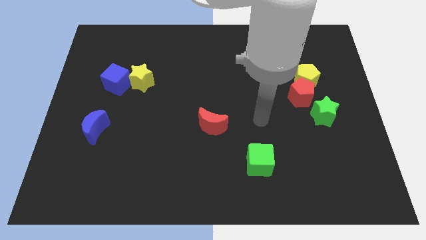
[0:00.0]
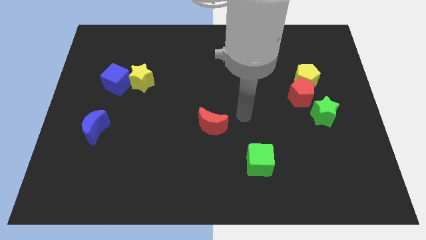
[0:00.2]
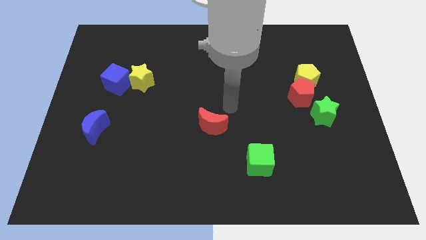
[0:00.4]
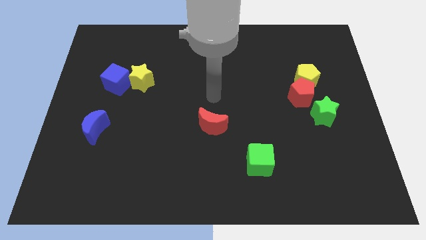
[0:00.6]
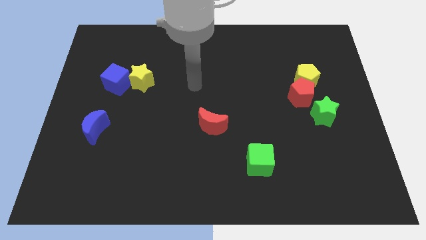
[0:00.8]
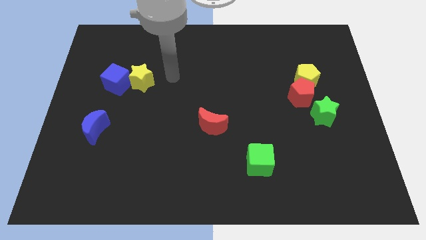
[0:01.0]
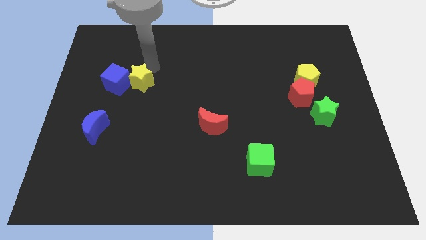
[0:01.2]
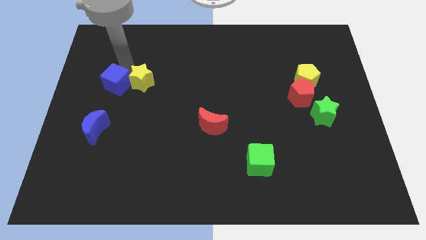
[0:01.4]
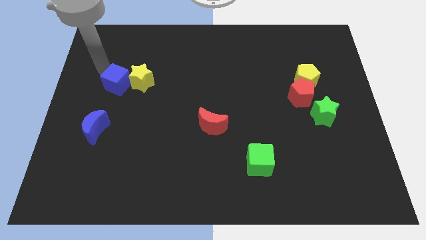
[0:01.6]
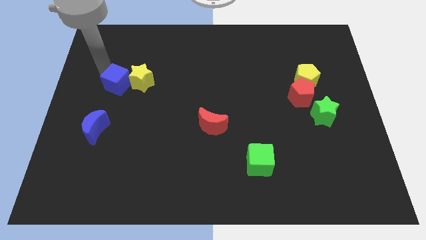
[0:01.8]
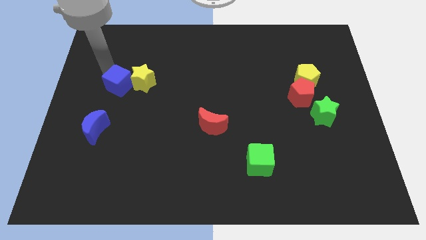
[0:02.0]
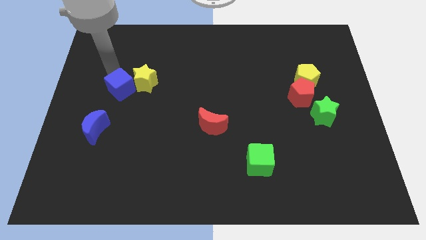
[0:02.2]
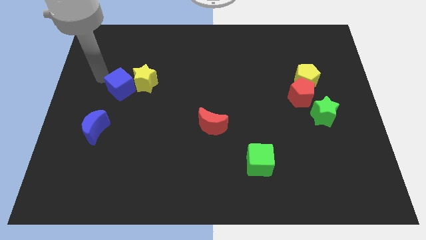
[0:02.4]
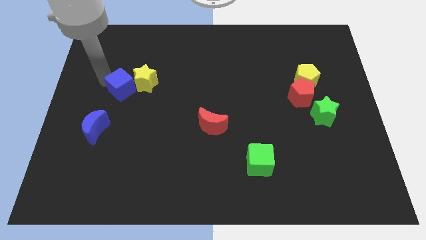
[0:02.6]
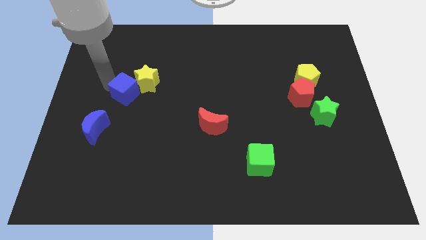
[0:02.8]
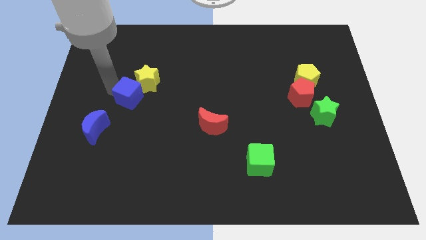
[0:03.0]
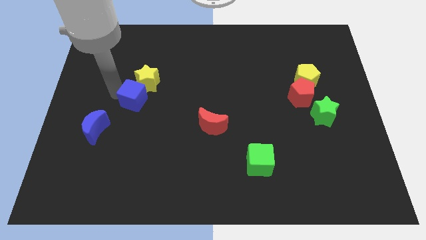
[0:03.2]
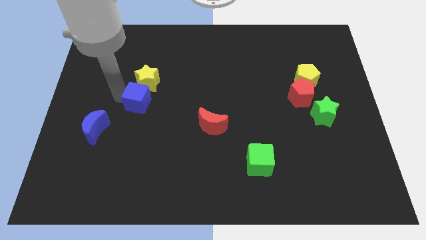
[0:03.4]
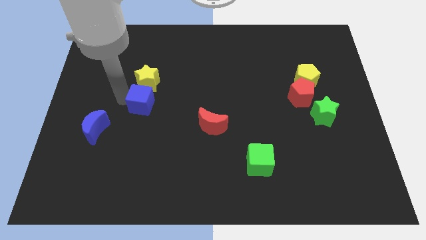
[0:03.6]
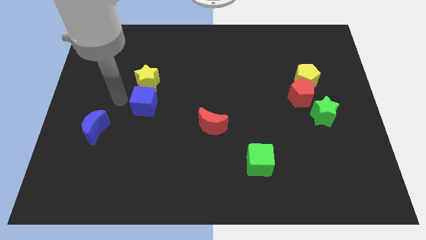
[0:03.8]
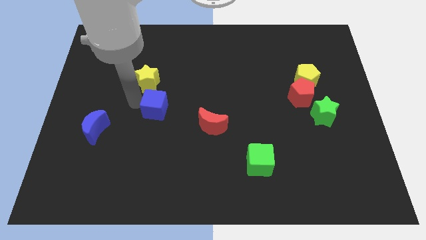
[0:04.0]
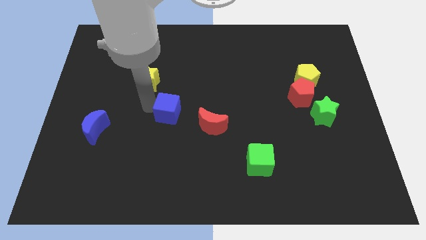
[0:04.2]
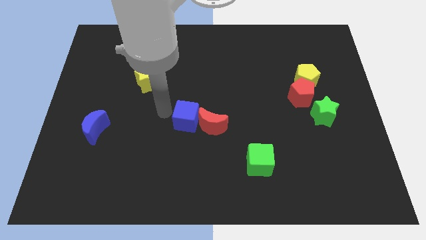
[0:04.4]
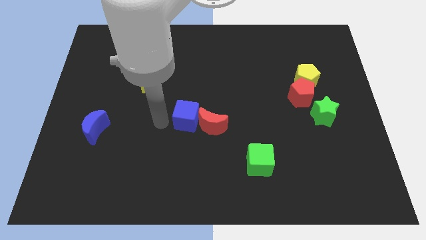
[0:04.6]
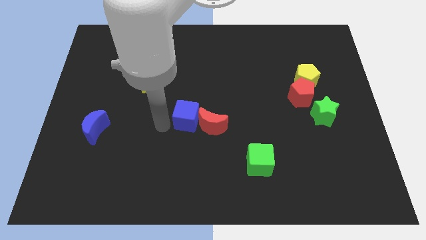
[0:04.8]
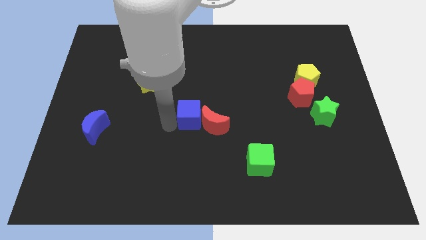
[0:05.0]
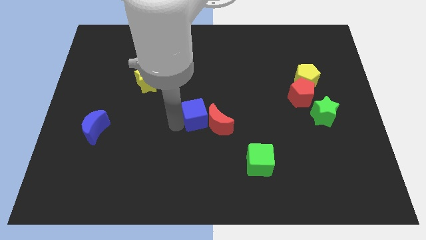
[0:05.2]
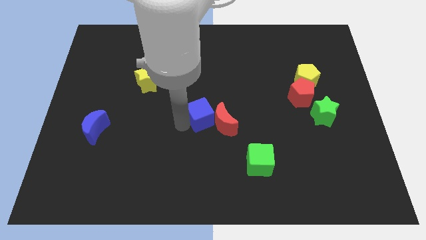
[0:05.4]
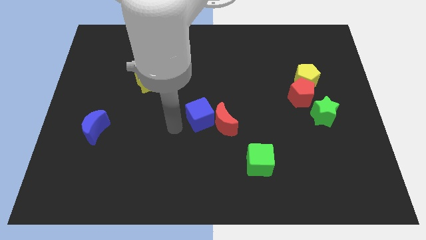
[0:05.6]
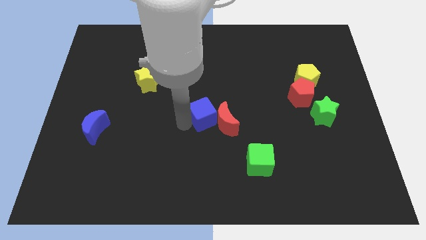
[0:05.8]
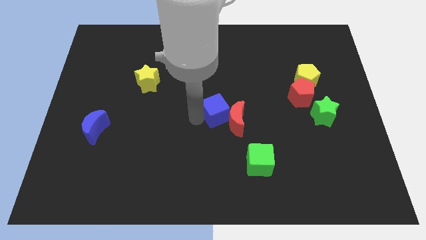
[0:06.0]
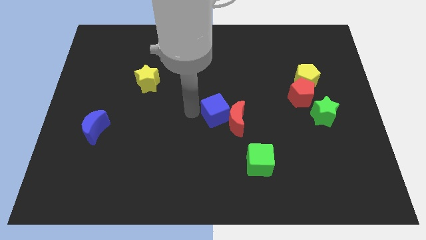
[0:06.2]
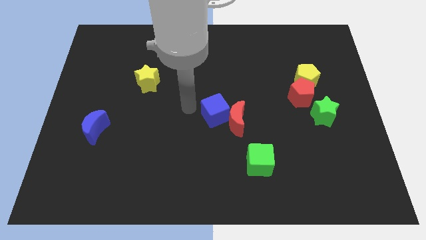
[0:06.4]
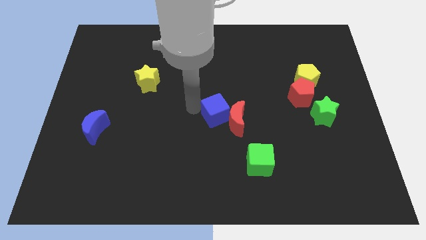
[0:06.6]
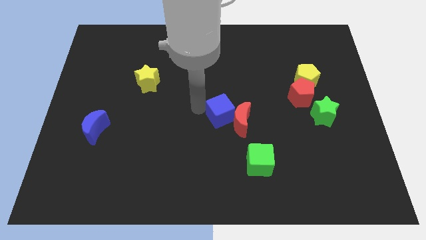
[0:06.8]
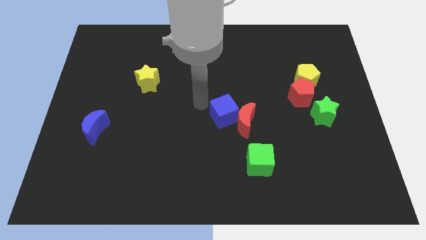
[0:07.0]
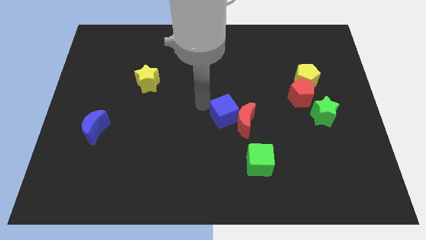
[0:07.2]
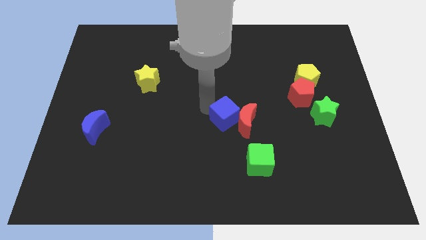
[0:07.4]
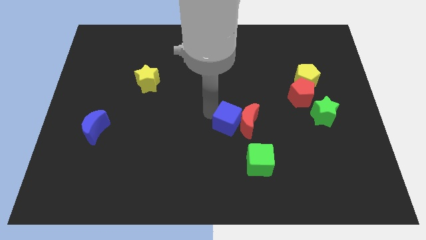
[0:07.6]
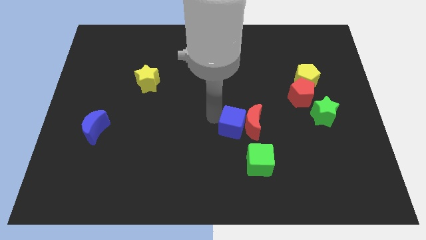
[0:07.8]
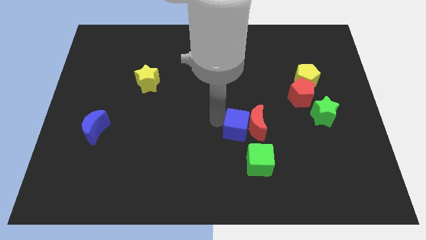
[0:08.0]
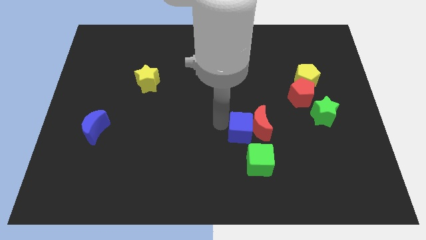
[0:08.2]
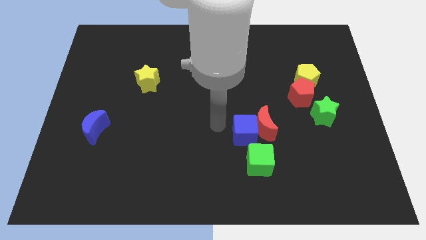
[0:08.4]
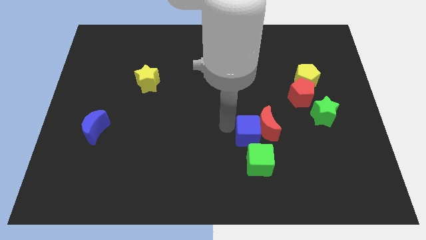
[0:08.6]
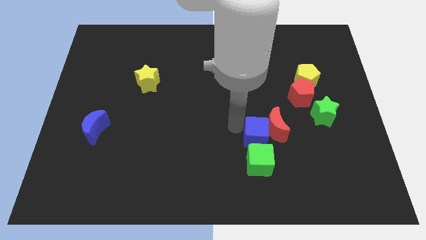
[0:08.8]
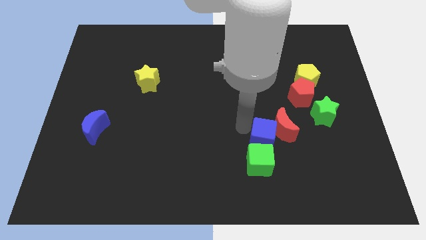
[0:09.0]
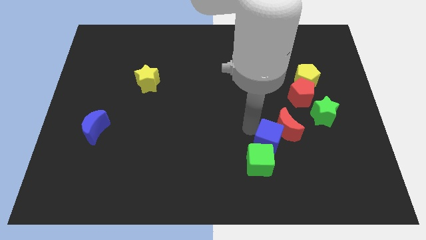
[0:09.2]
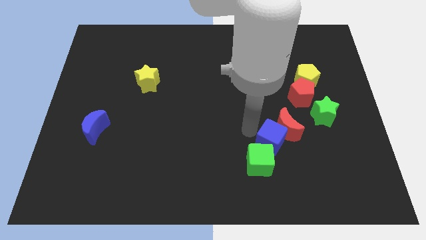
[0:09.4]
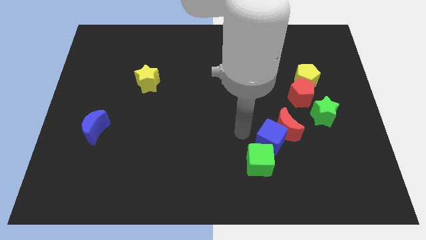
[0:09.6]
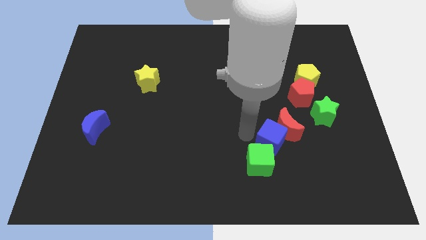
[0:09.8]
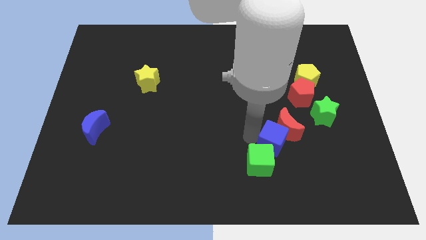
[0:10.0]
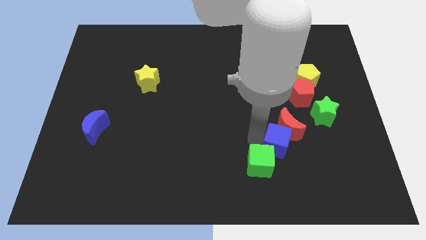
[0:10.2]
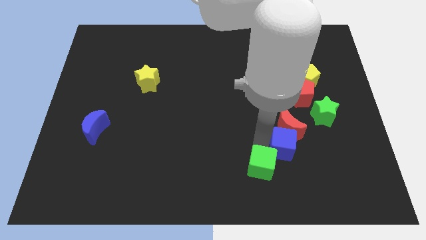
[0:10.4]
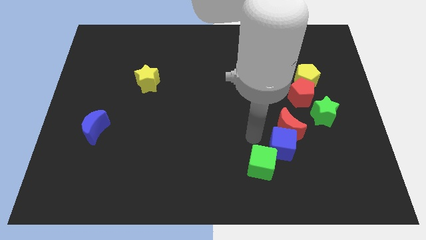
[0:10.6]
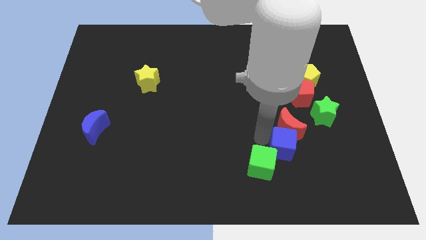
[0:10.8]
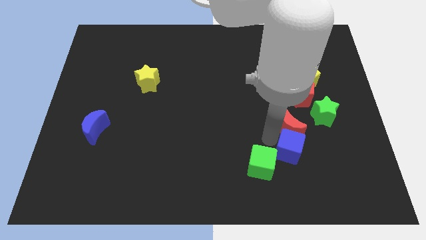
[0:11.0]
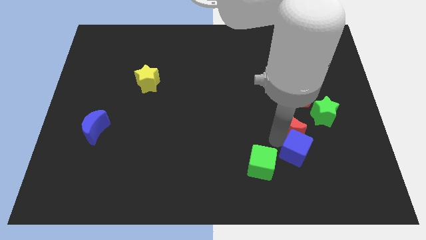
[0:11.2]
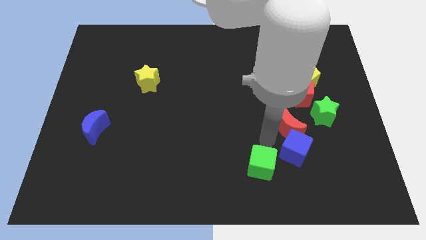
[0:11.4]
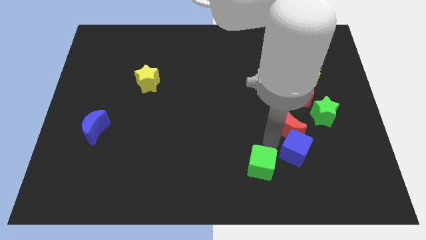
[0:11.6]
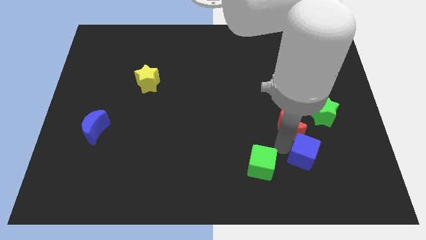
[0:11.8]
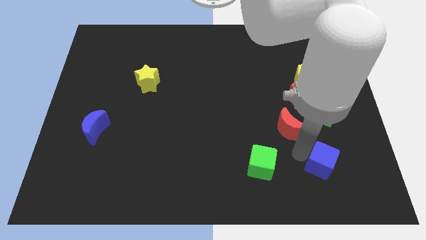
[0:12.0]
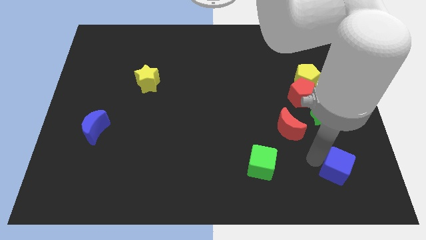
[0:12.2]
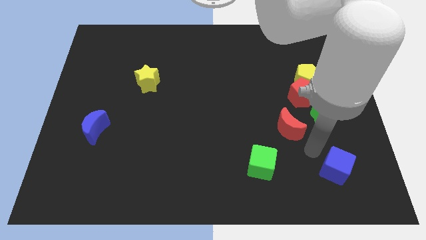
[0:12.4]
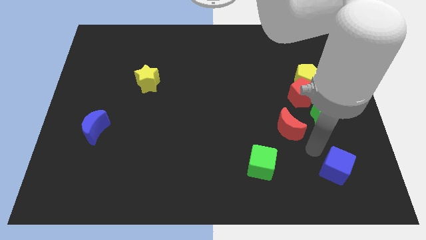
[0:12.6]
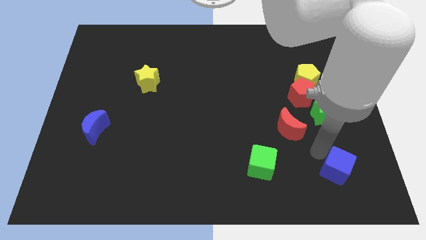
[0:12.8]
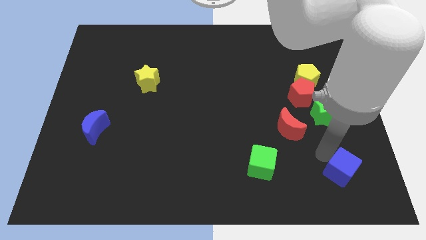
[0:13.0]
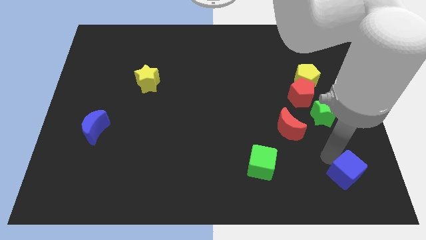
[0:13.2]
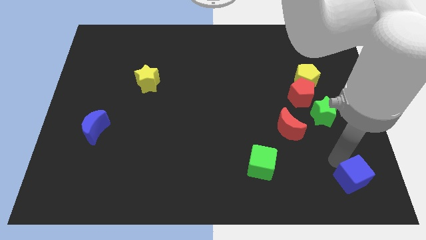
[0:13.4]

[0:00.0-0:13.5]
move the blue cube to the lower right corner
